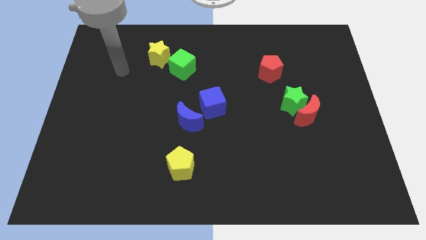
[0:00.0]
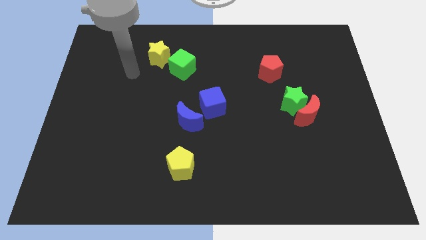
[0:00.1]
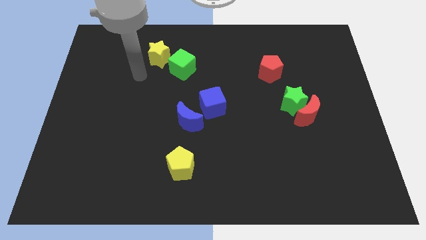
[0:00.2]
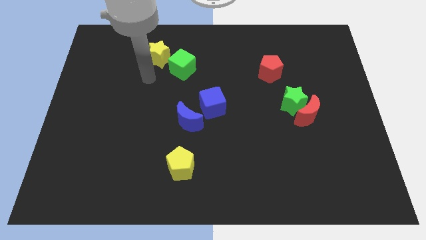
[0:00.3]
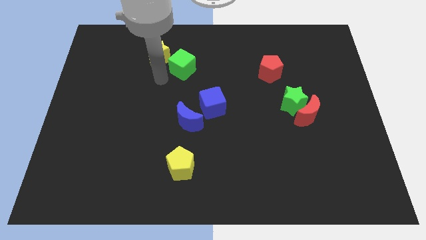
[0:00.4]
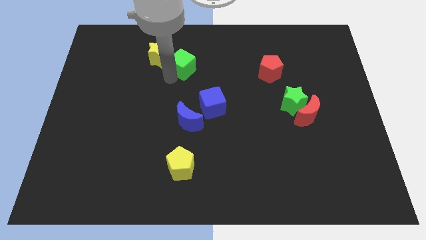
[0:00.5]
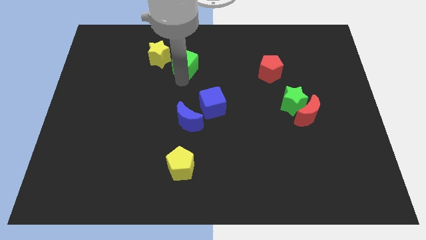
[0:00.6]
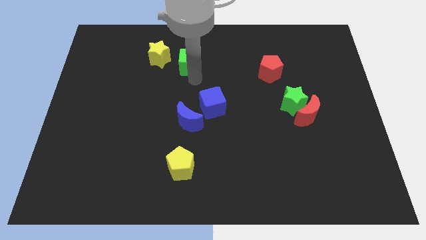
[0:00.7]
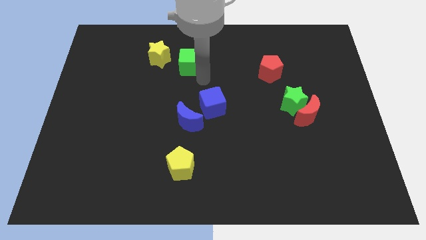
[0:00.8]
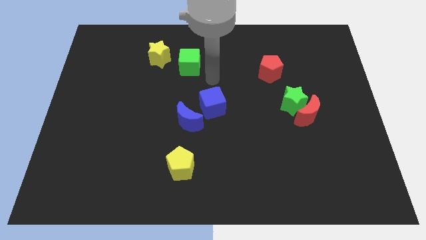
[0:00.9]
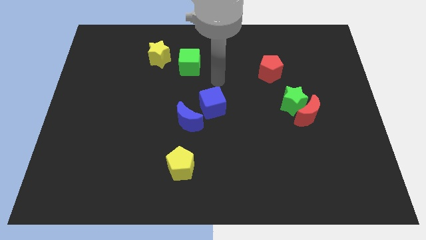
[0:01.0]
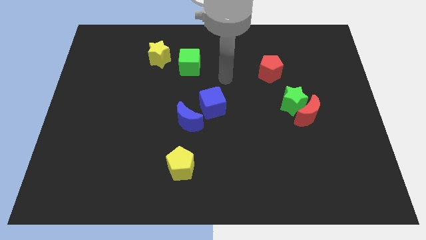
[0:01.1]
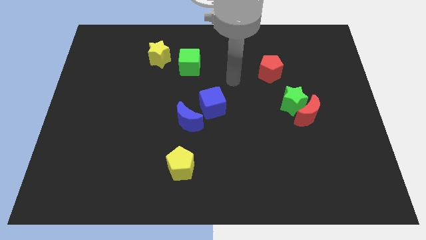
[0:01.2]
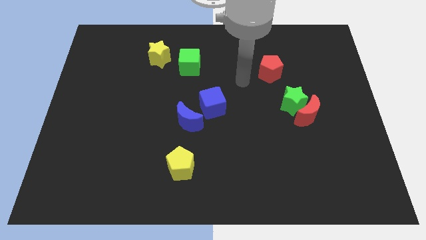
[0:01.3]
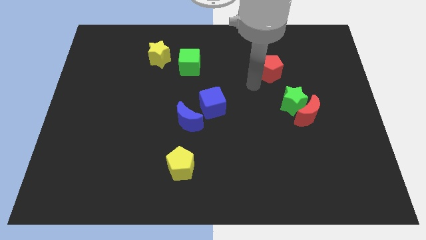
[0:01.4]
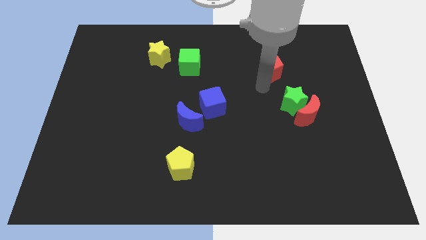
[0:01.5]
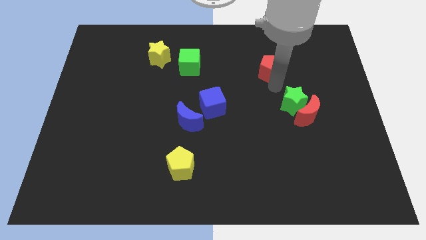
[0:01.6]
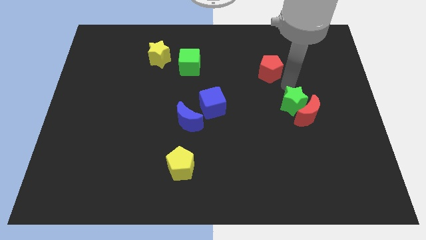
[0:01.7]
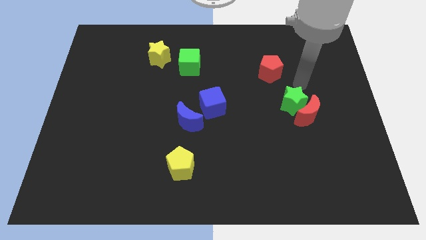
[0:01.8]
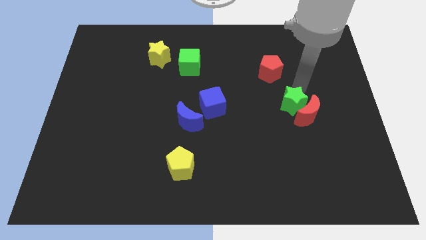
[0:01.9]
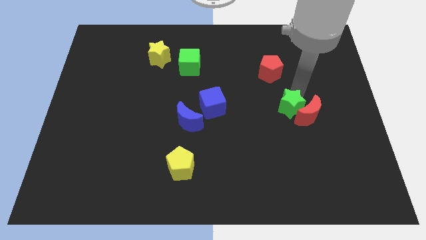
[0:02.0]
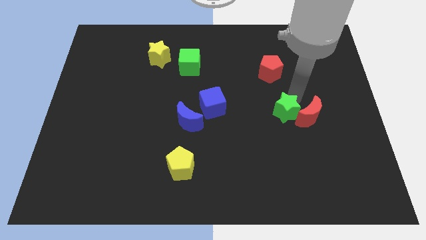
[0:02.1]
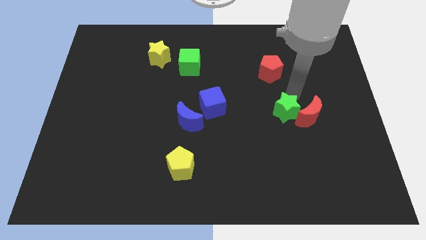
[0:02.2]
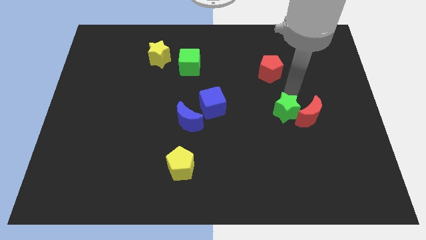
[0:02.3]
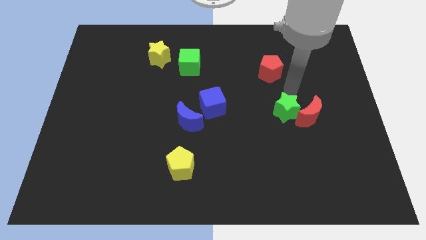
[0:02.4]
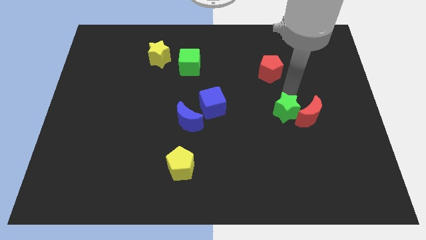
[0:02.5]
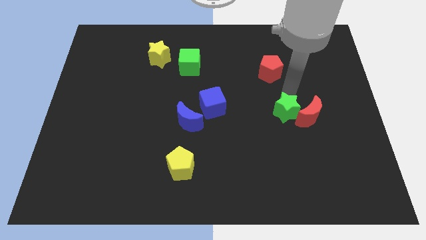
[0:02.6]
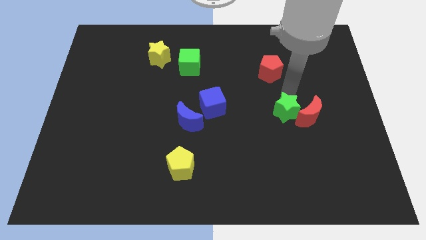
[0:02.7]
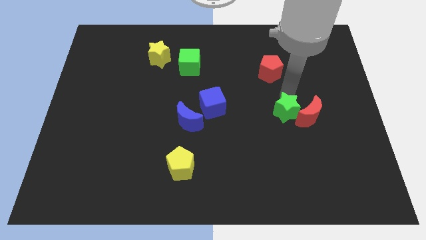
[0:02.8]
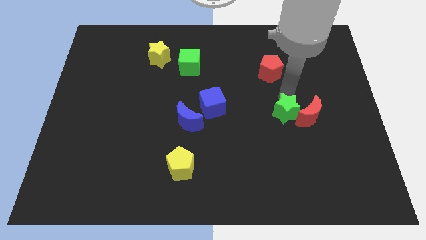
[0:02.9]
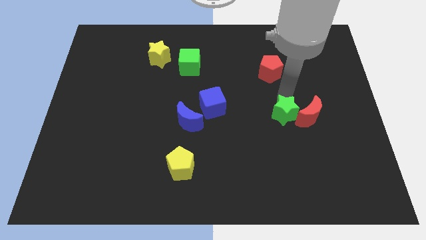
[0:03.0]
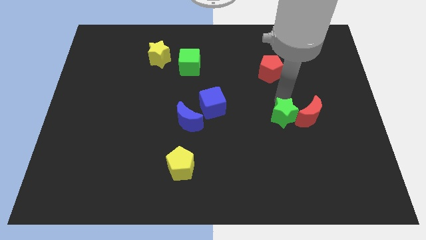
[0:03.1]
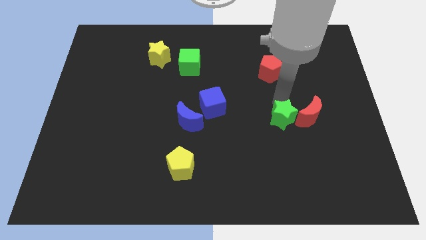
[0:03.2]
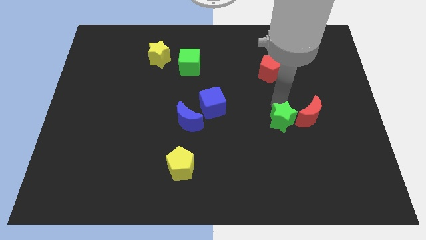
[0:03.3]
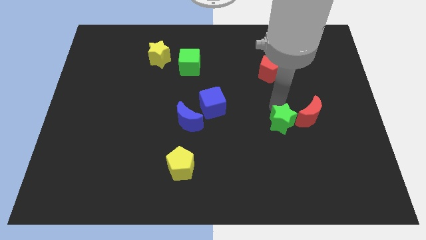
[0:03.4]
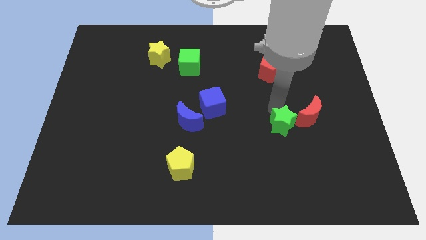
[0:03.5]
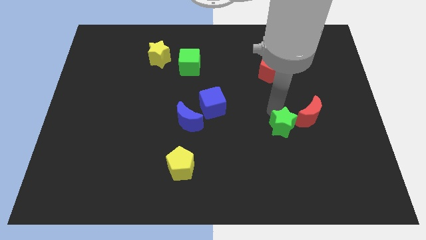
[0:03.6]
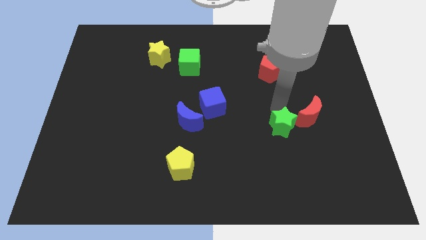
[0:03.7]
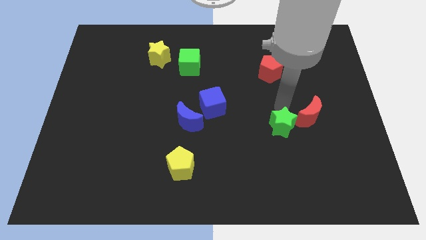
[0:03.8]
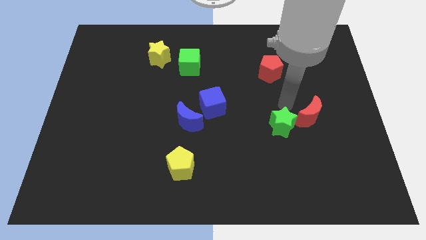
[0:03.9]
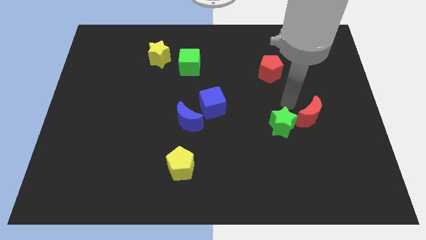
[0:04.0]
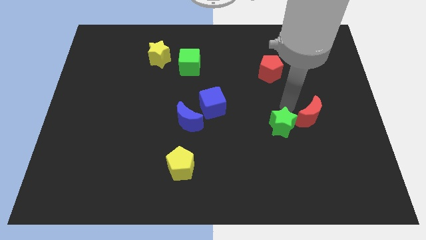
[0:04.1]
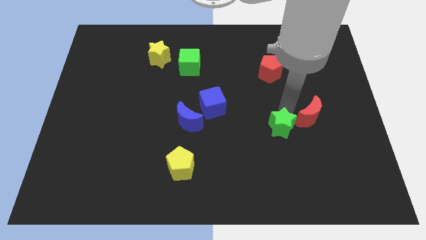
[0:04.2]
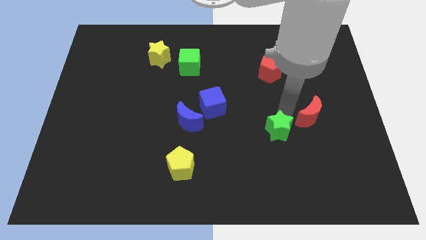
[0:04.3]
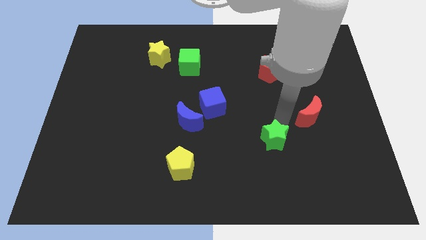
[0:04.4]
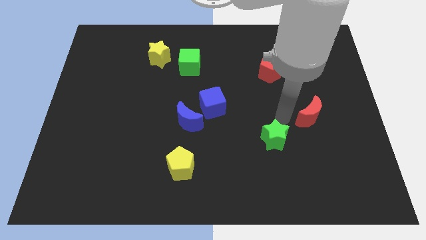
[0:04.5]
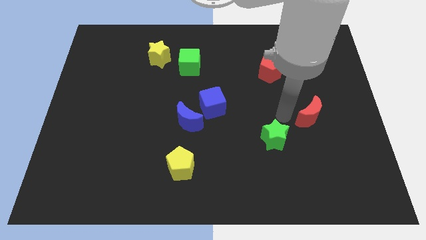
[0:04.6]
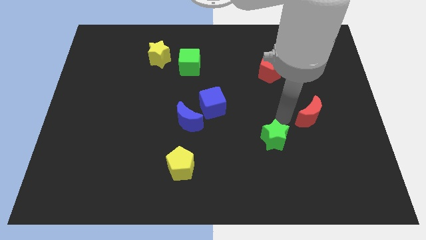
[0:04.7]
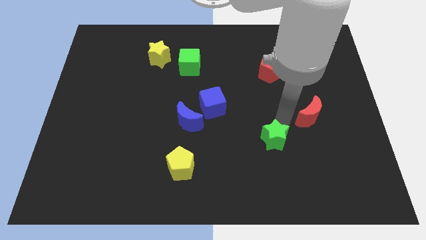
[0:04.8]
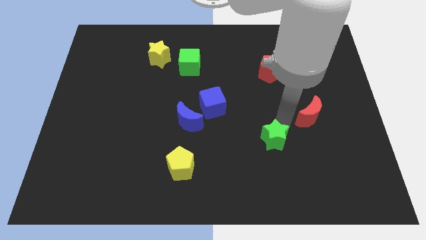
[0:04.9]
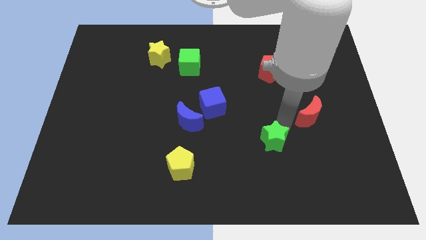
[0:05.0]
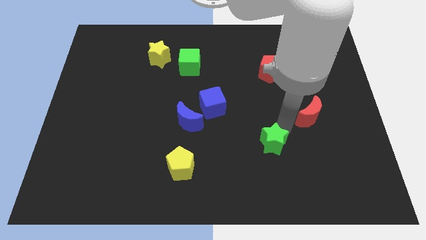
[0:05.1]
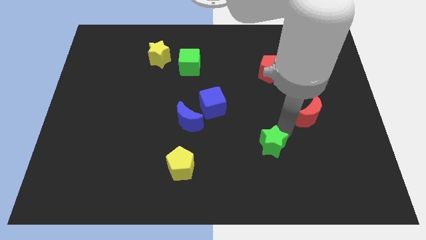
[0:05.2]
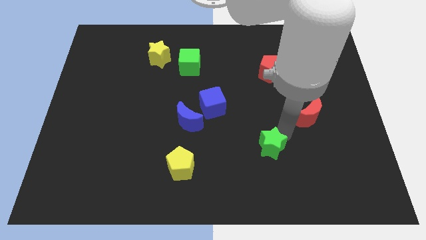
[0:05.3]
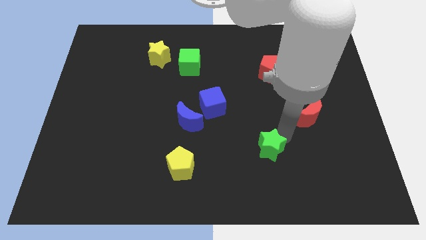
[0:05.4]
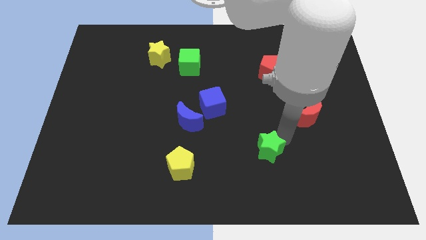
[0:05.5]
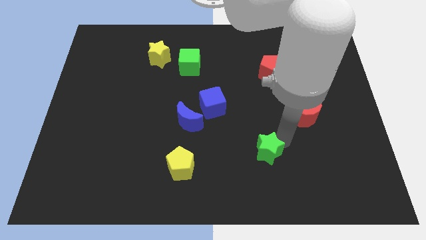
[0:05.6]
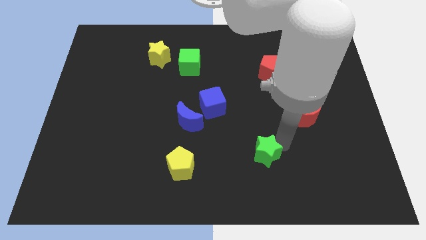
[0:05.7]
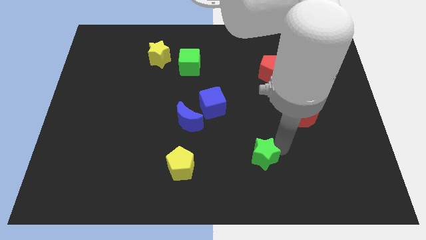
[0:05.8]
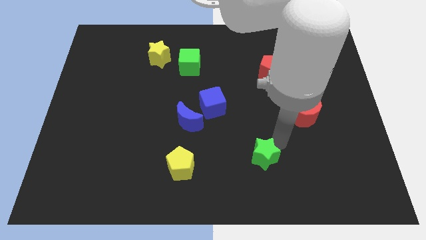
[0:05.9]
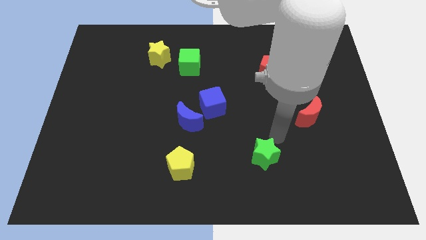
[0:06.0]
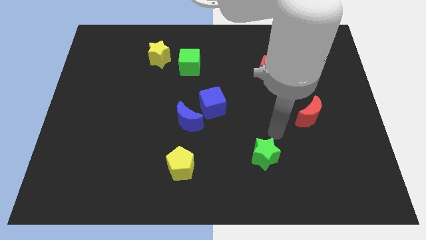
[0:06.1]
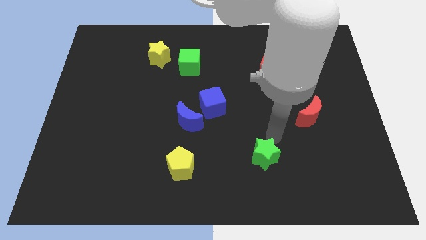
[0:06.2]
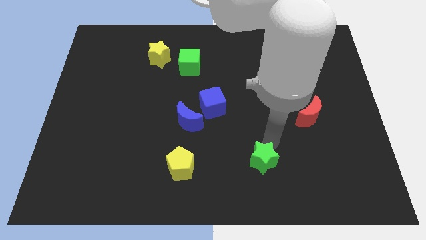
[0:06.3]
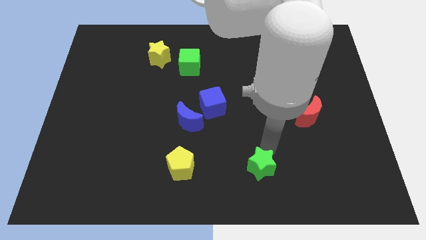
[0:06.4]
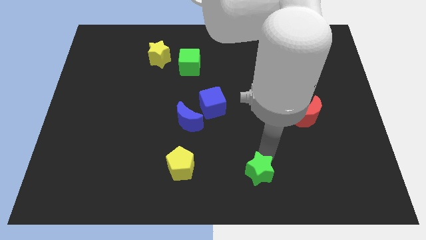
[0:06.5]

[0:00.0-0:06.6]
push the green star to the bottom side

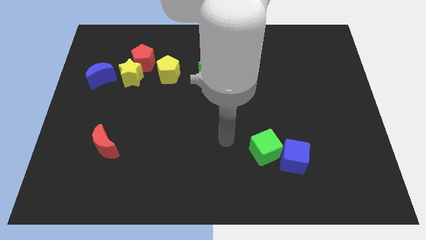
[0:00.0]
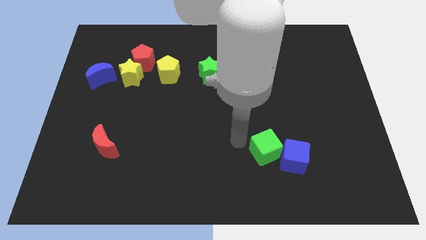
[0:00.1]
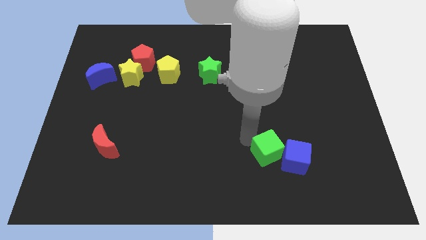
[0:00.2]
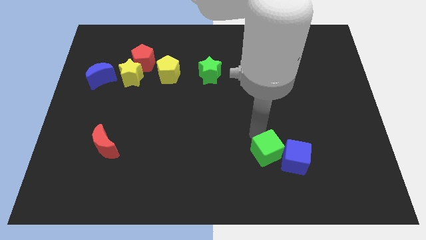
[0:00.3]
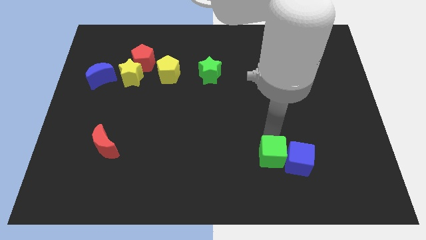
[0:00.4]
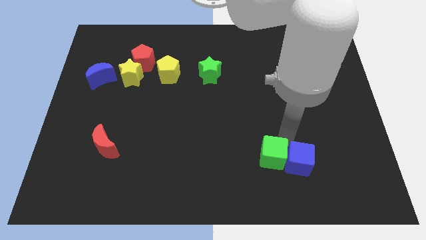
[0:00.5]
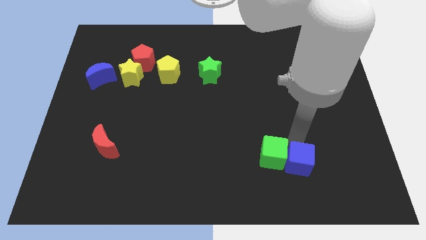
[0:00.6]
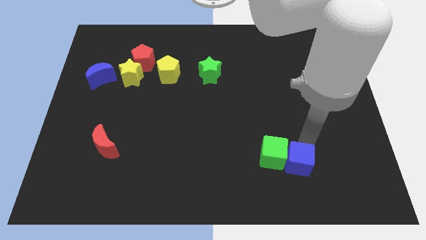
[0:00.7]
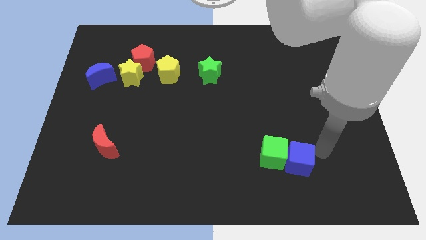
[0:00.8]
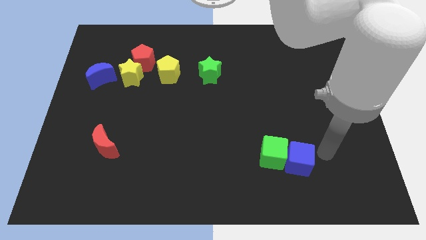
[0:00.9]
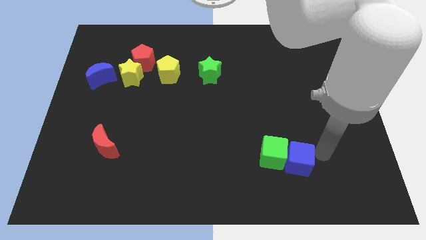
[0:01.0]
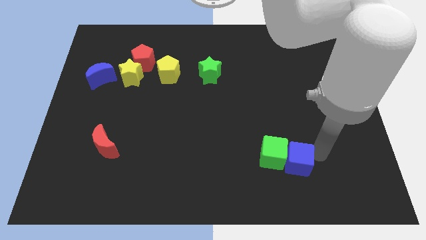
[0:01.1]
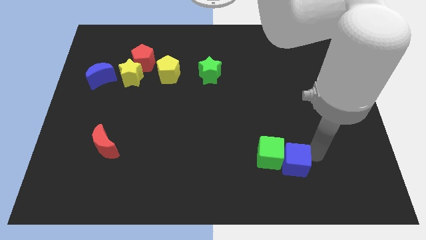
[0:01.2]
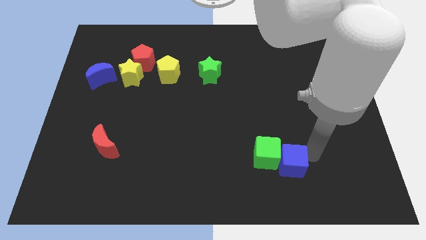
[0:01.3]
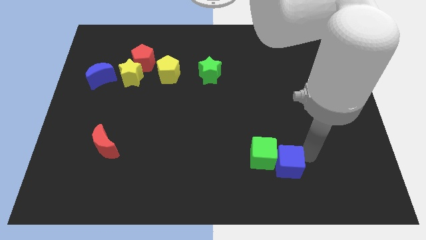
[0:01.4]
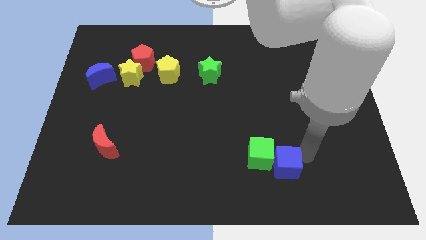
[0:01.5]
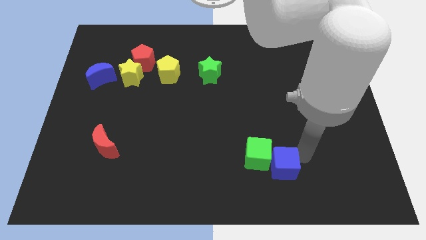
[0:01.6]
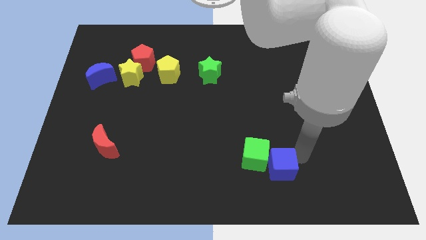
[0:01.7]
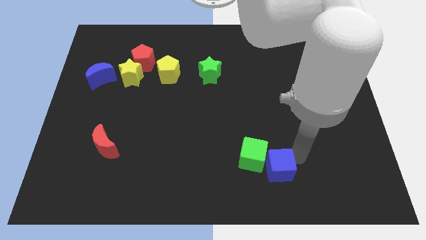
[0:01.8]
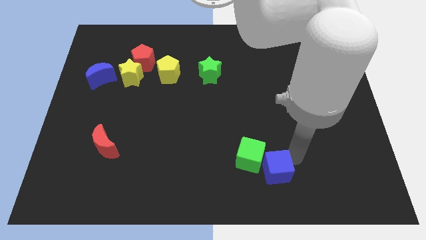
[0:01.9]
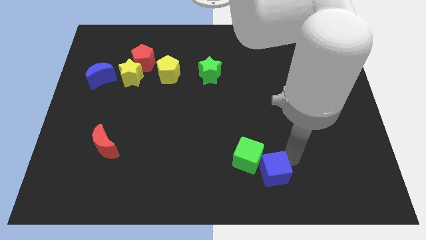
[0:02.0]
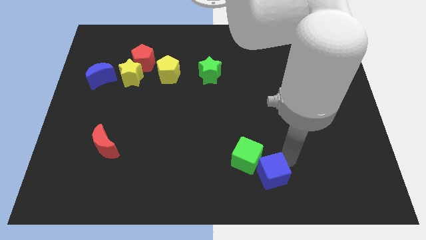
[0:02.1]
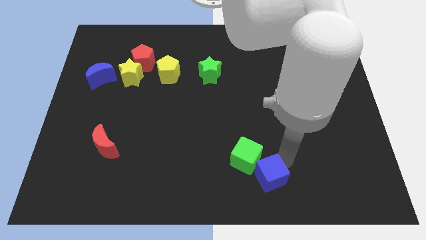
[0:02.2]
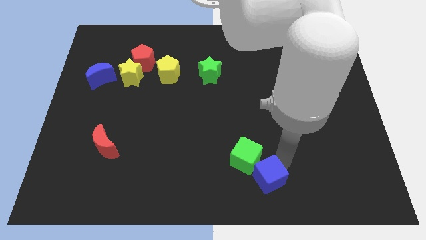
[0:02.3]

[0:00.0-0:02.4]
slide the blue cube to the bottom side
